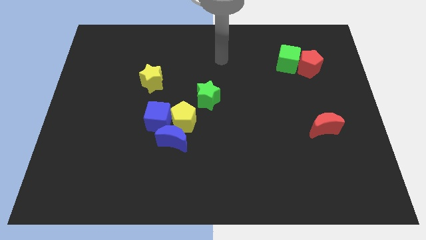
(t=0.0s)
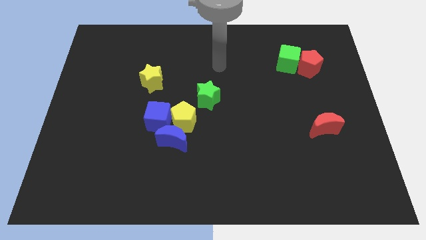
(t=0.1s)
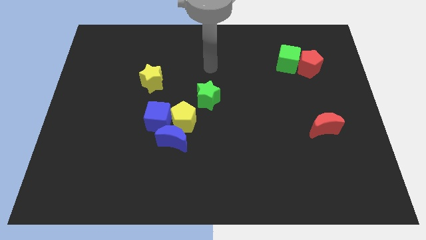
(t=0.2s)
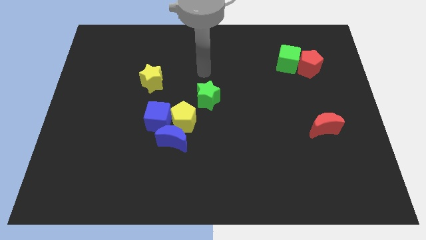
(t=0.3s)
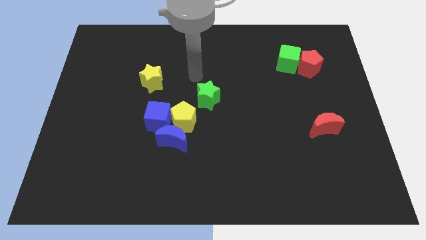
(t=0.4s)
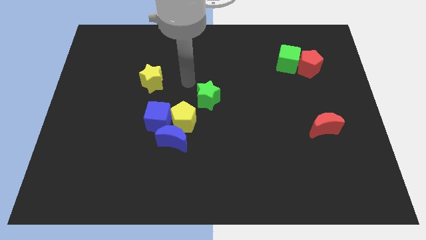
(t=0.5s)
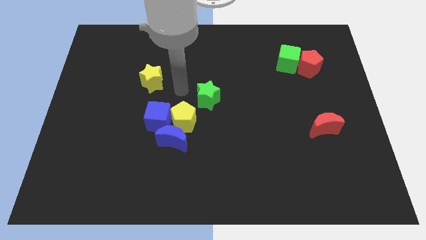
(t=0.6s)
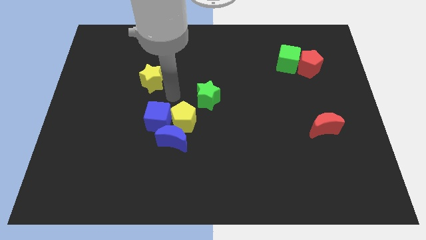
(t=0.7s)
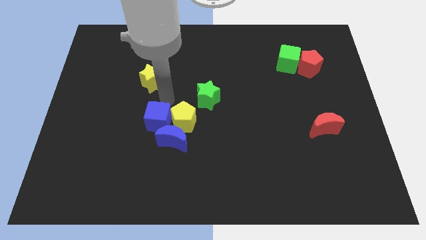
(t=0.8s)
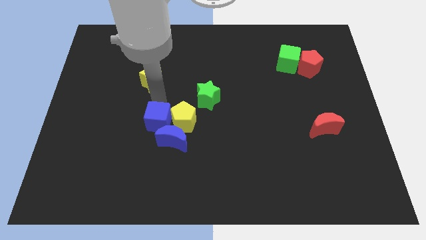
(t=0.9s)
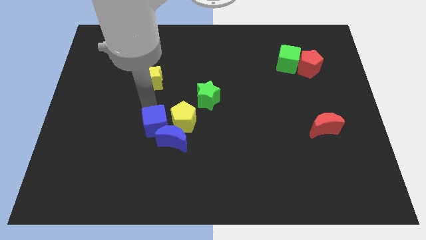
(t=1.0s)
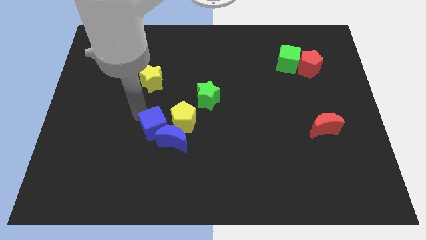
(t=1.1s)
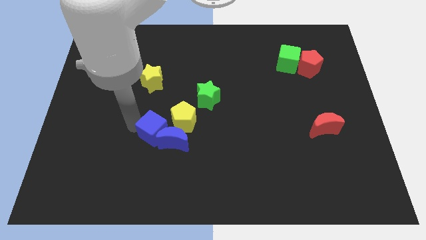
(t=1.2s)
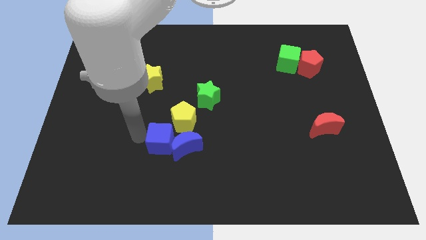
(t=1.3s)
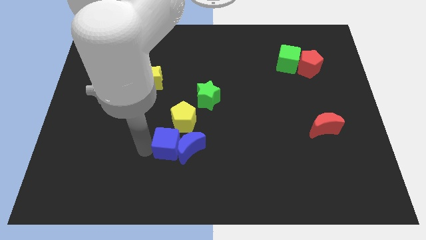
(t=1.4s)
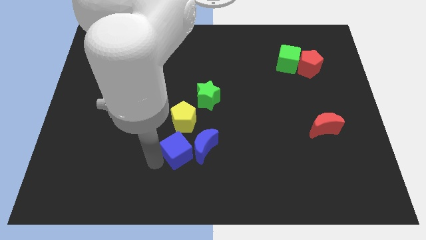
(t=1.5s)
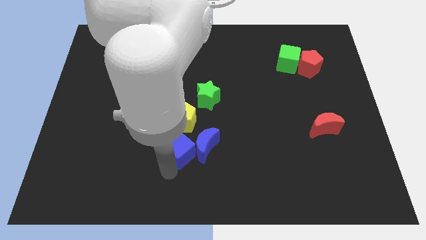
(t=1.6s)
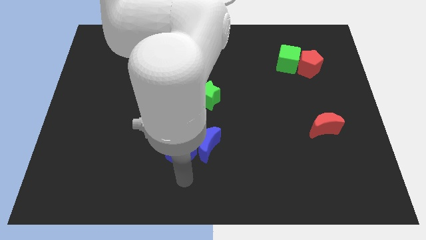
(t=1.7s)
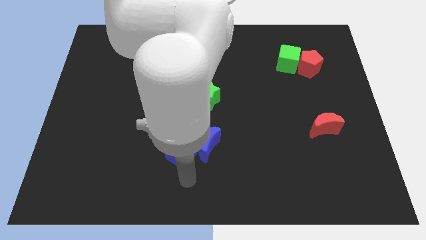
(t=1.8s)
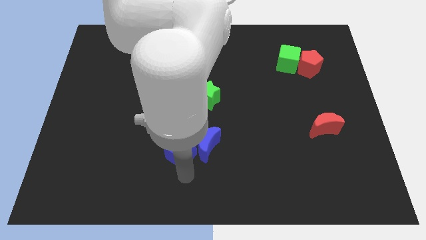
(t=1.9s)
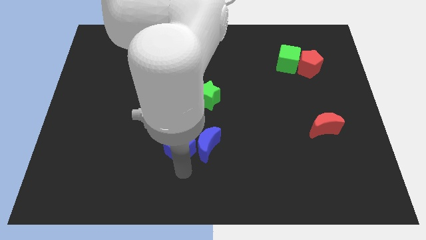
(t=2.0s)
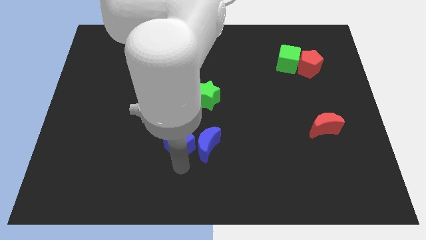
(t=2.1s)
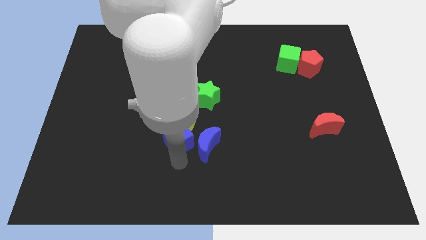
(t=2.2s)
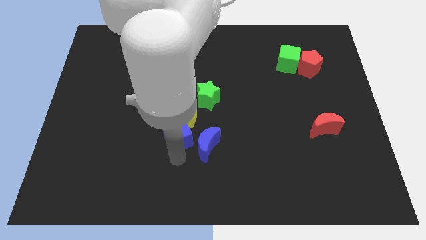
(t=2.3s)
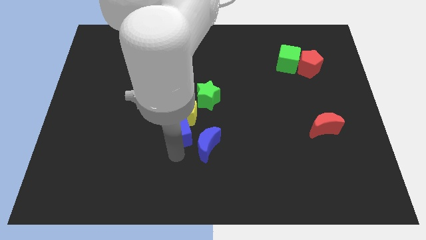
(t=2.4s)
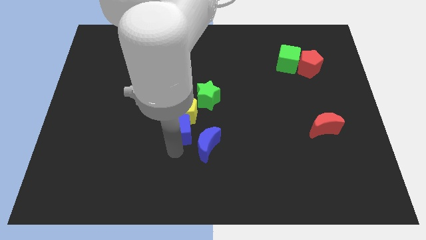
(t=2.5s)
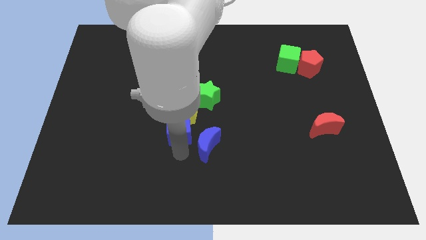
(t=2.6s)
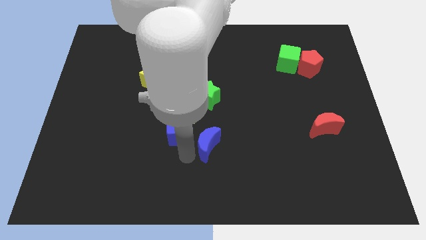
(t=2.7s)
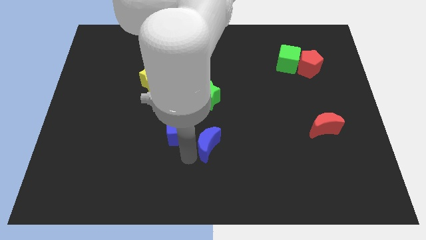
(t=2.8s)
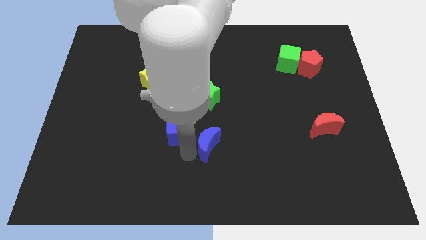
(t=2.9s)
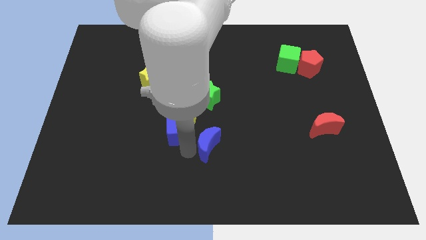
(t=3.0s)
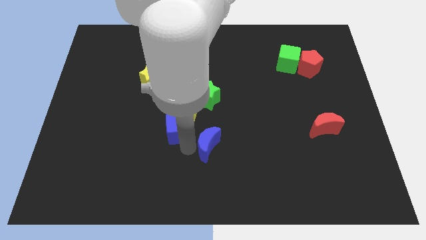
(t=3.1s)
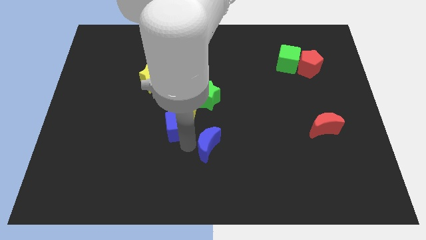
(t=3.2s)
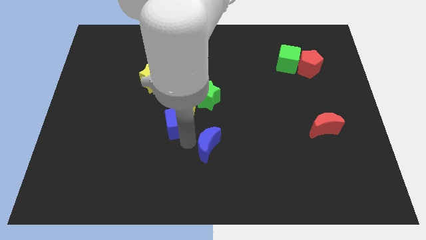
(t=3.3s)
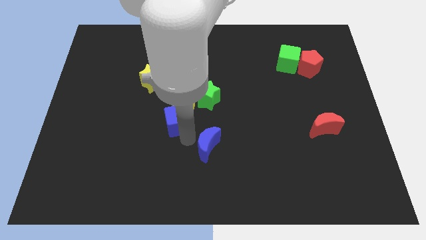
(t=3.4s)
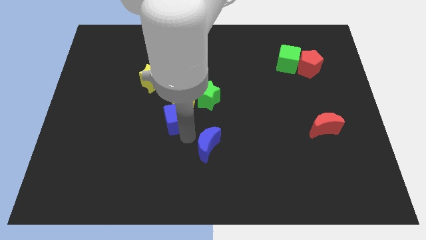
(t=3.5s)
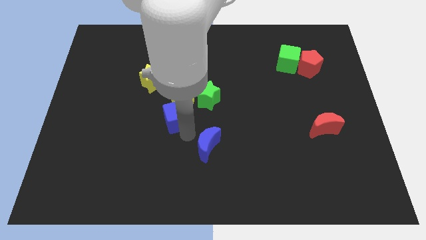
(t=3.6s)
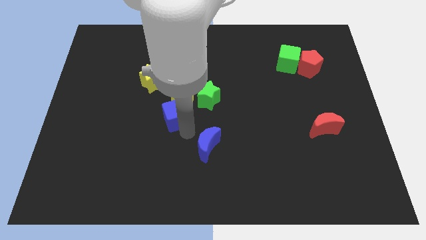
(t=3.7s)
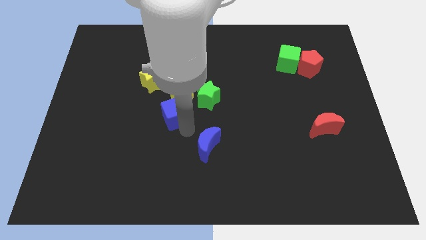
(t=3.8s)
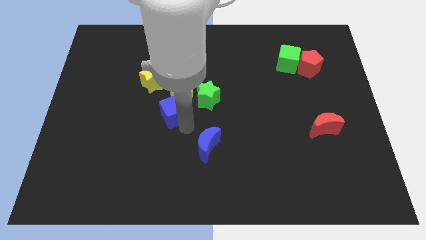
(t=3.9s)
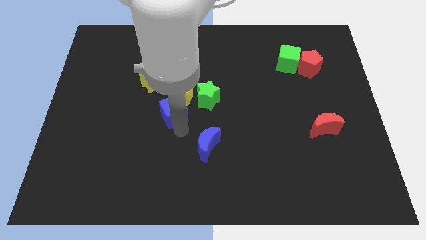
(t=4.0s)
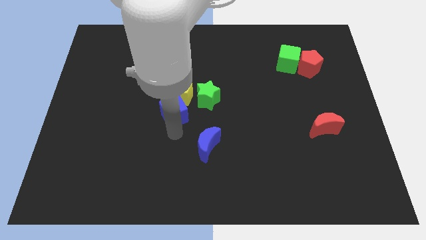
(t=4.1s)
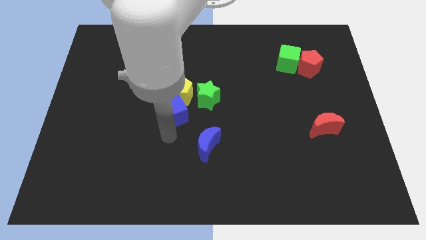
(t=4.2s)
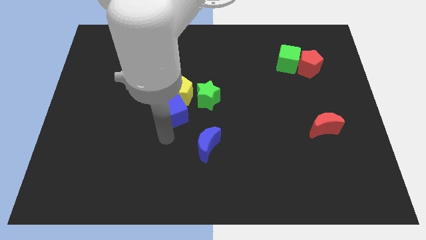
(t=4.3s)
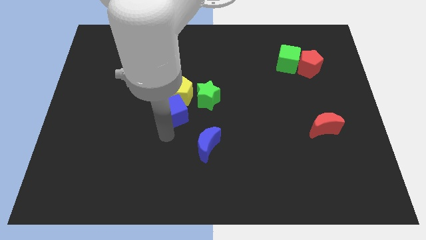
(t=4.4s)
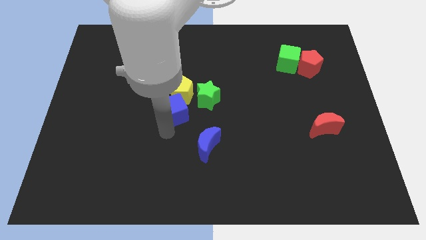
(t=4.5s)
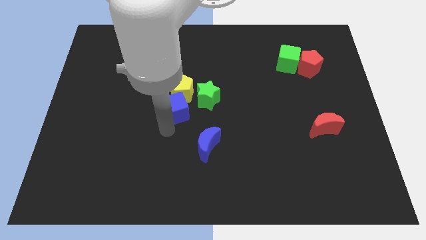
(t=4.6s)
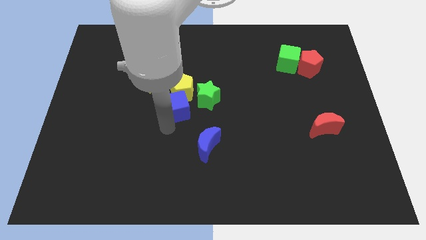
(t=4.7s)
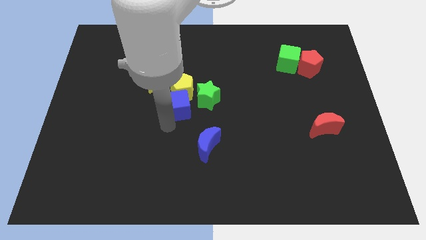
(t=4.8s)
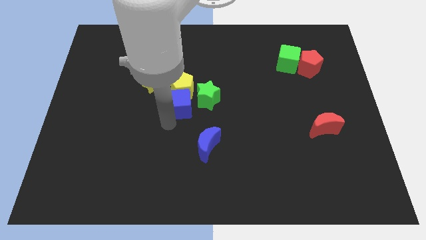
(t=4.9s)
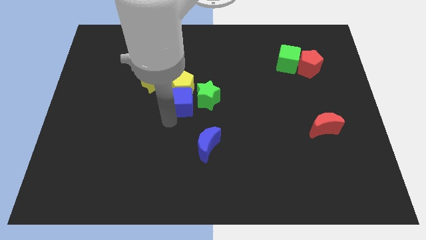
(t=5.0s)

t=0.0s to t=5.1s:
slightly push the blue cube upwards and to the right diagonally

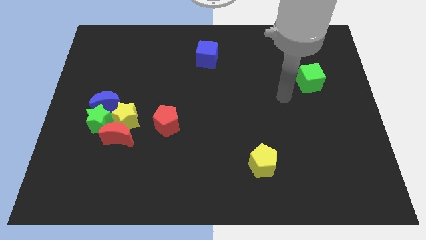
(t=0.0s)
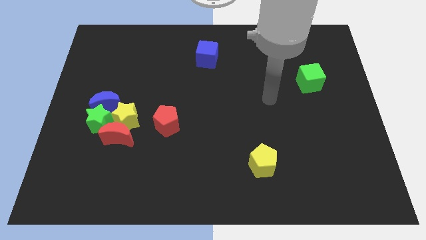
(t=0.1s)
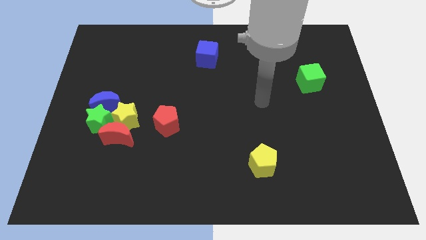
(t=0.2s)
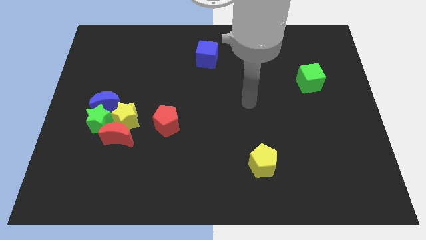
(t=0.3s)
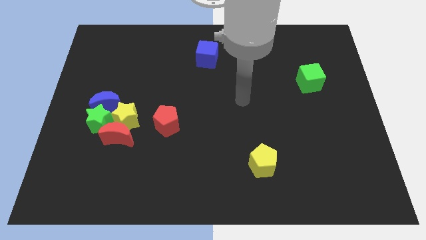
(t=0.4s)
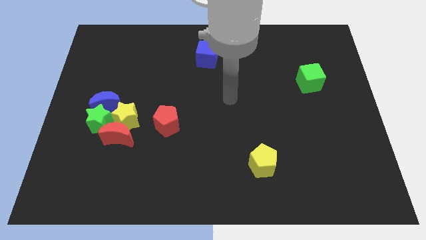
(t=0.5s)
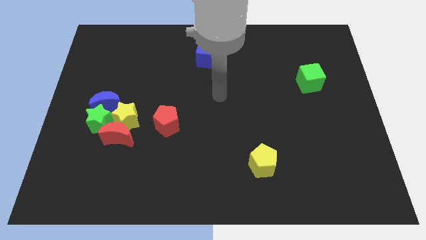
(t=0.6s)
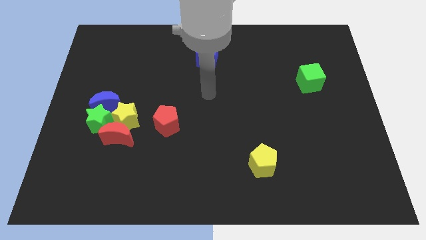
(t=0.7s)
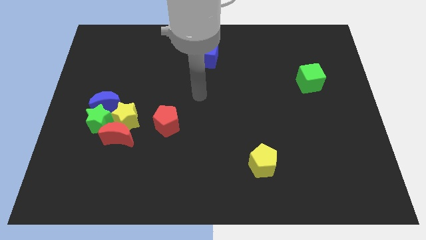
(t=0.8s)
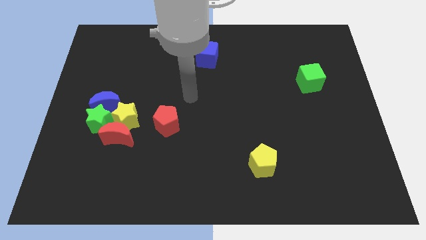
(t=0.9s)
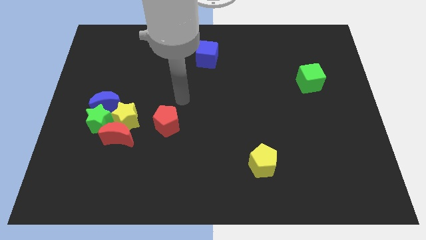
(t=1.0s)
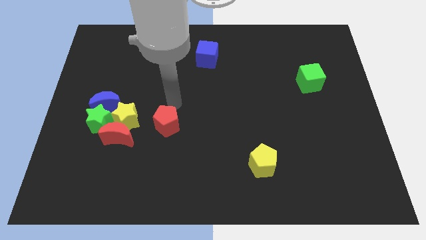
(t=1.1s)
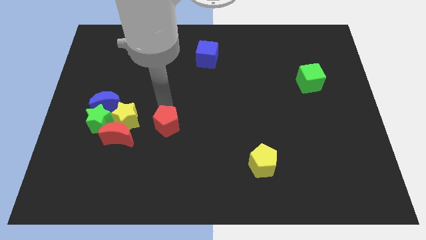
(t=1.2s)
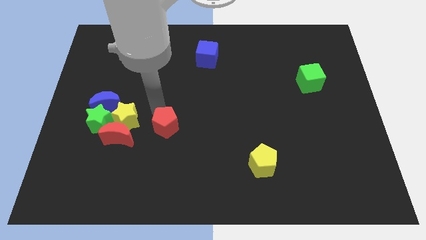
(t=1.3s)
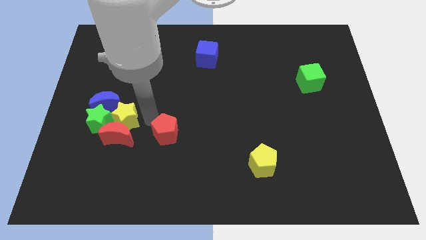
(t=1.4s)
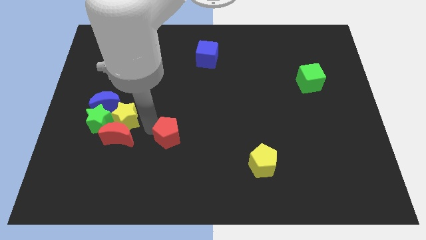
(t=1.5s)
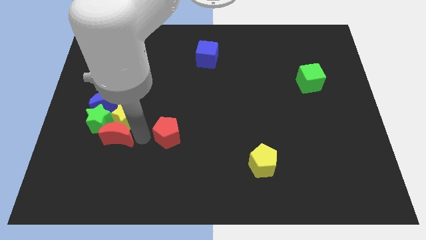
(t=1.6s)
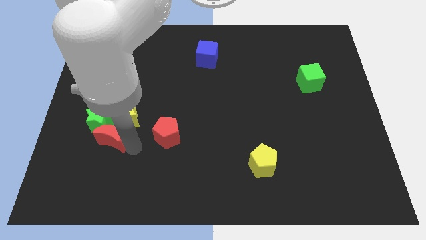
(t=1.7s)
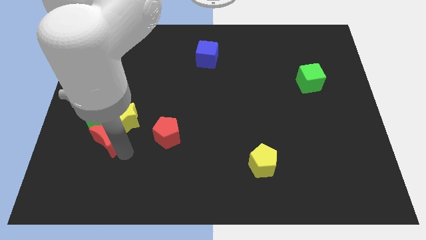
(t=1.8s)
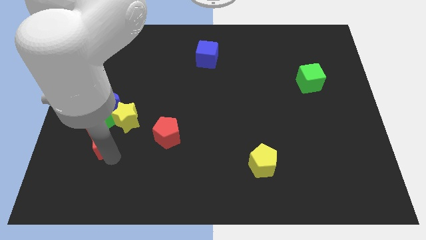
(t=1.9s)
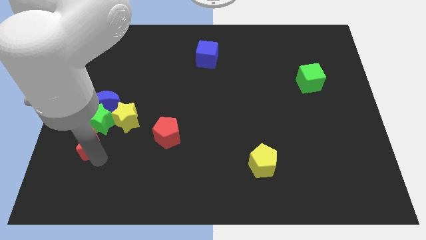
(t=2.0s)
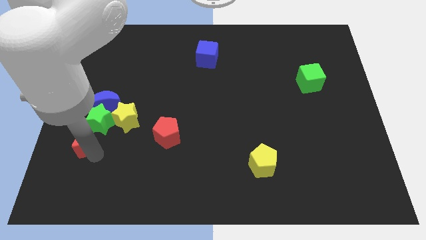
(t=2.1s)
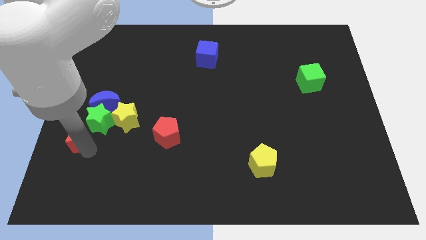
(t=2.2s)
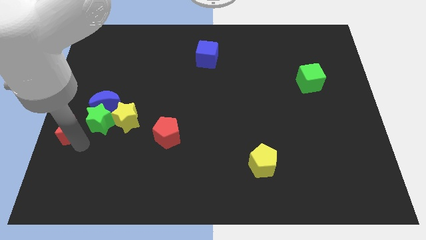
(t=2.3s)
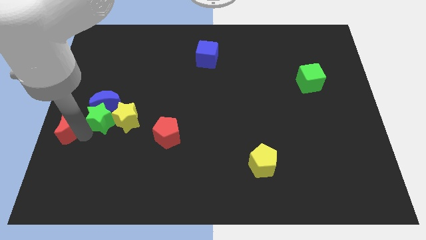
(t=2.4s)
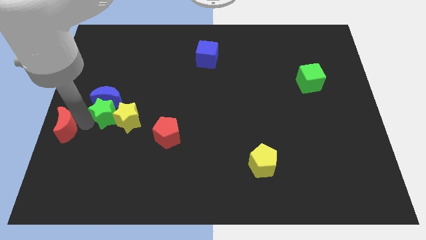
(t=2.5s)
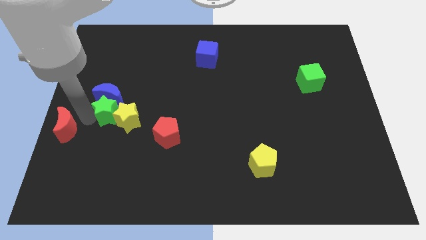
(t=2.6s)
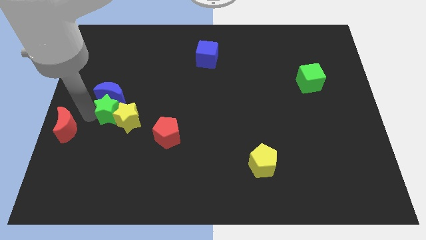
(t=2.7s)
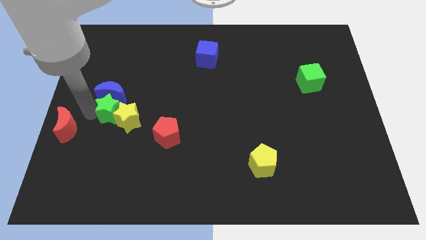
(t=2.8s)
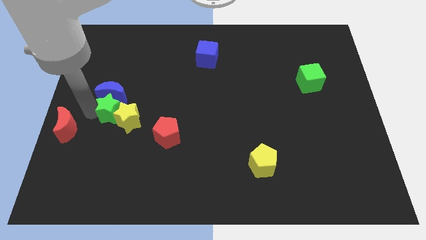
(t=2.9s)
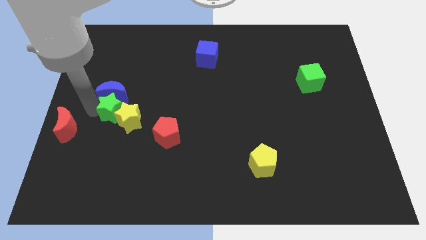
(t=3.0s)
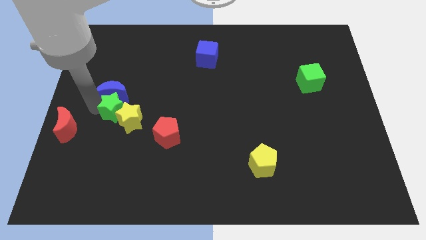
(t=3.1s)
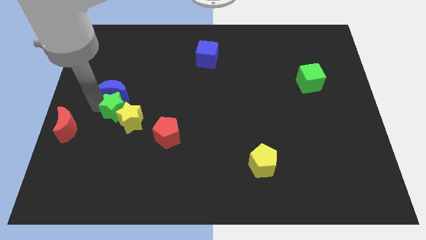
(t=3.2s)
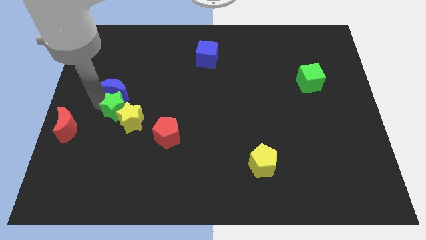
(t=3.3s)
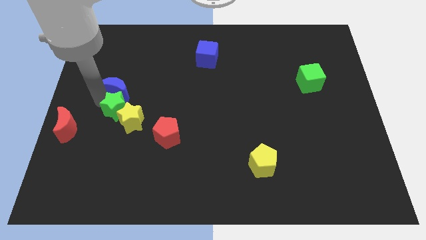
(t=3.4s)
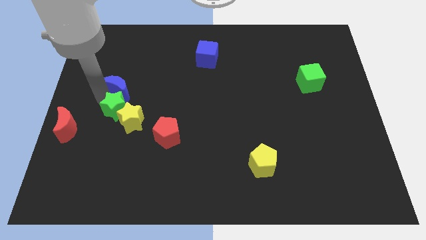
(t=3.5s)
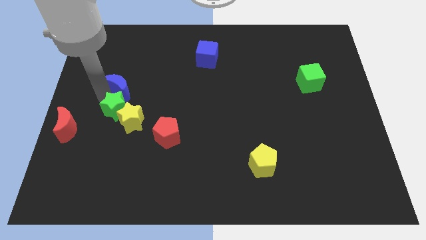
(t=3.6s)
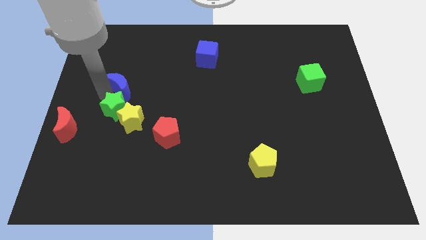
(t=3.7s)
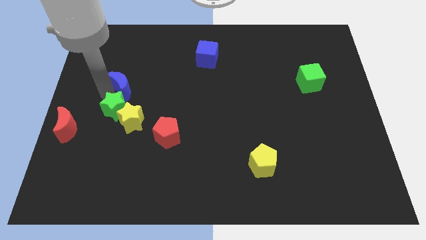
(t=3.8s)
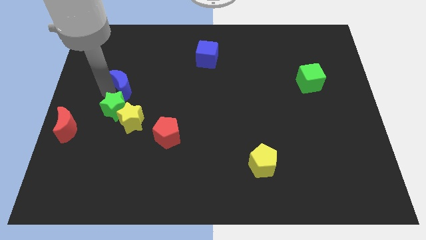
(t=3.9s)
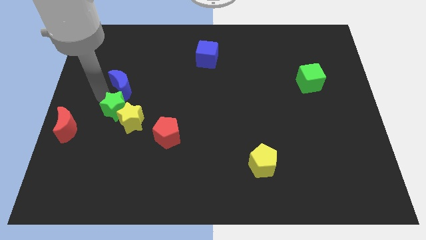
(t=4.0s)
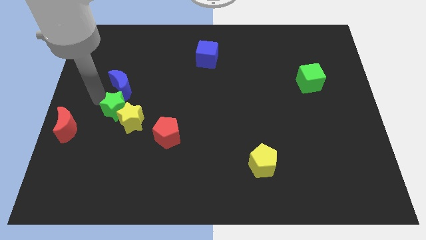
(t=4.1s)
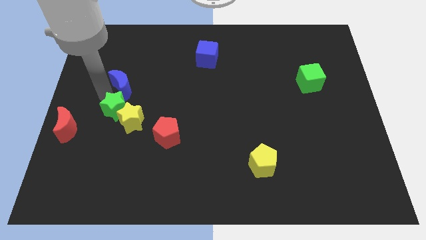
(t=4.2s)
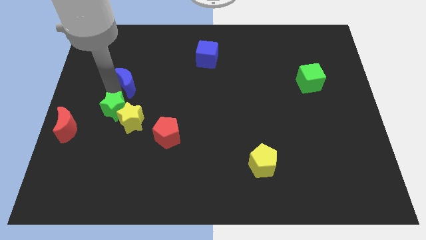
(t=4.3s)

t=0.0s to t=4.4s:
move the blue moon somewhat diagonally upwards and right
